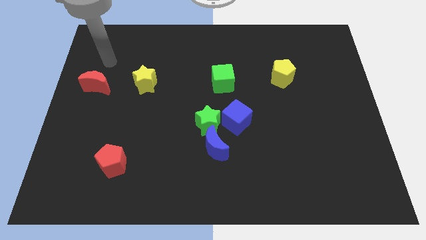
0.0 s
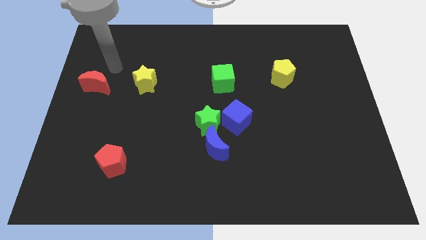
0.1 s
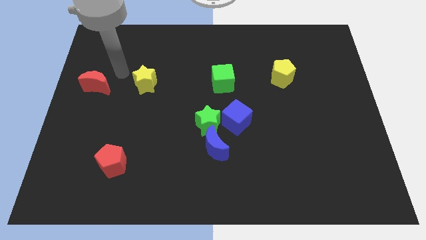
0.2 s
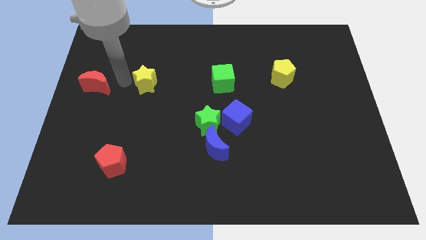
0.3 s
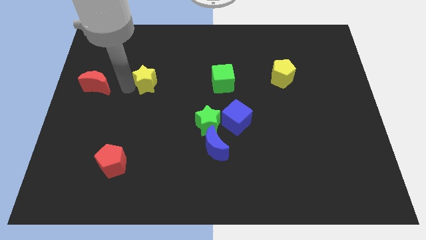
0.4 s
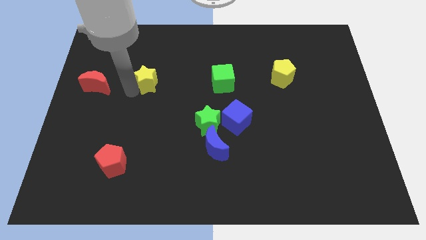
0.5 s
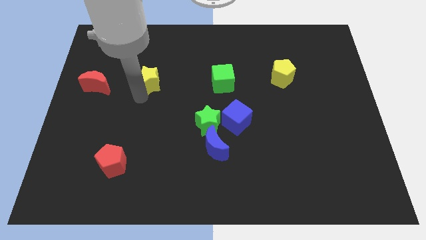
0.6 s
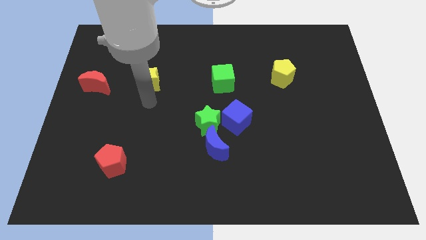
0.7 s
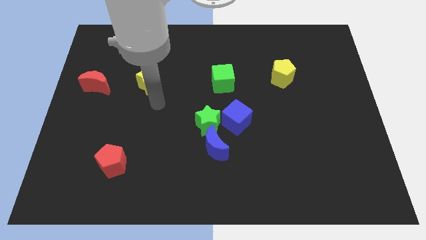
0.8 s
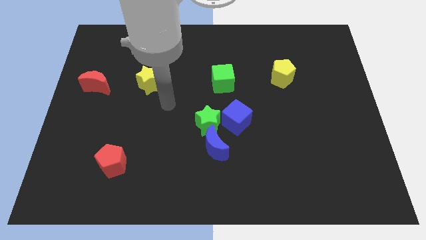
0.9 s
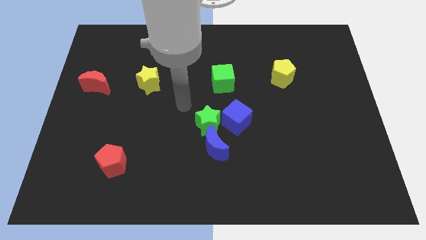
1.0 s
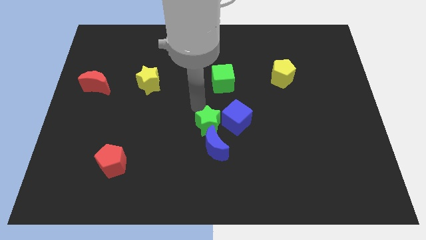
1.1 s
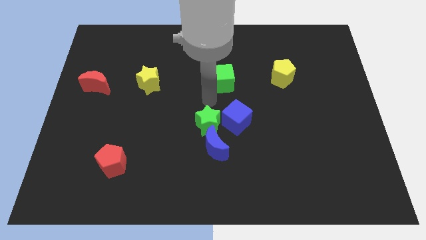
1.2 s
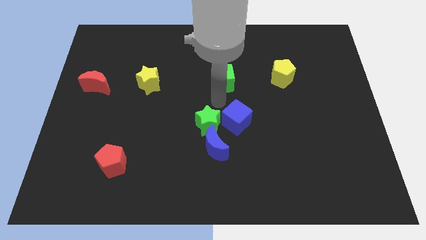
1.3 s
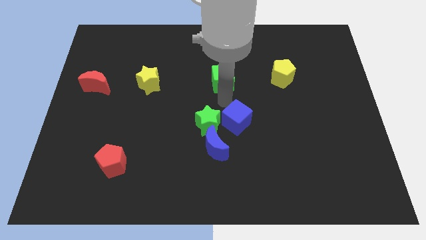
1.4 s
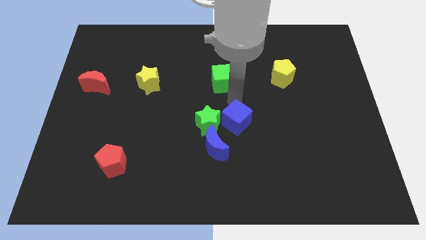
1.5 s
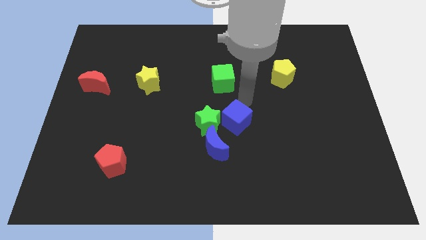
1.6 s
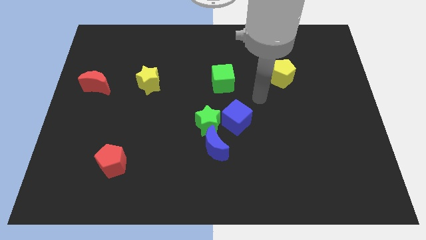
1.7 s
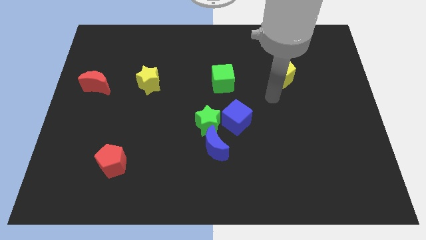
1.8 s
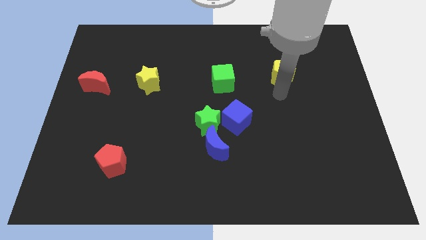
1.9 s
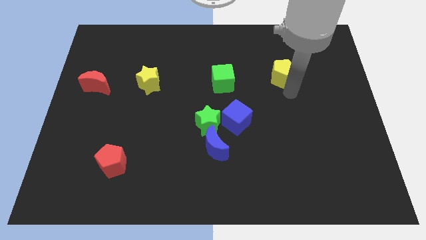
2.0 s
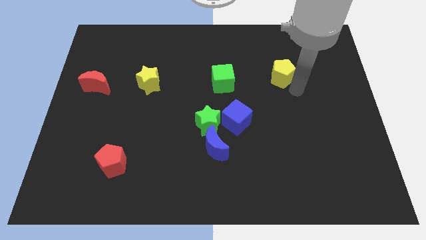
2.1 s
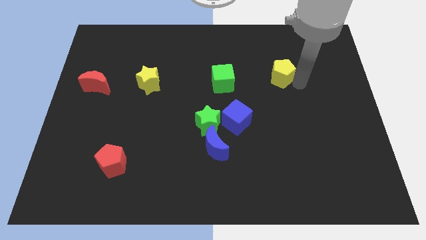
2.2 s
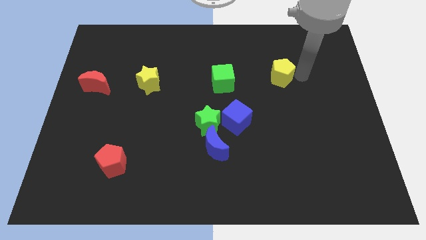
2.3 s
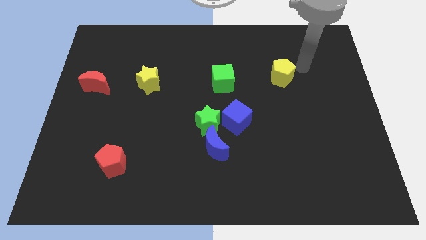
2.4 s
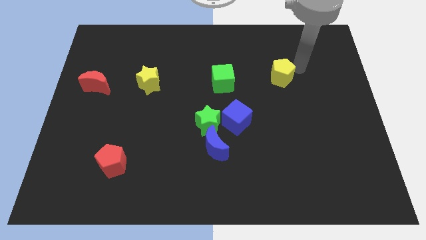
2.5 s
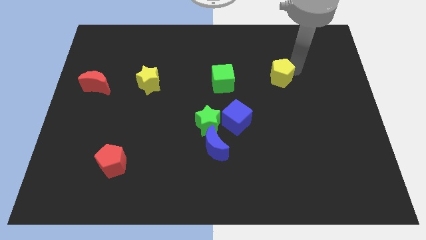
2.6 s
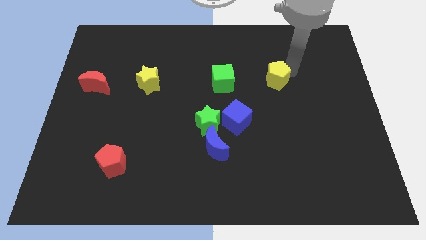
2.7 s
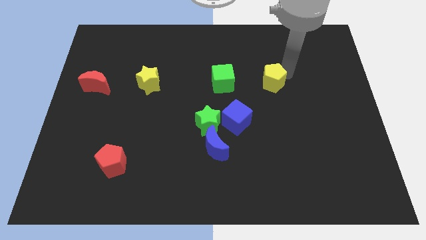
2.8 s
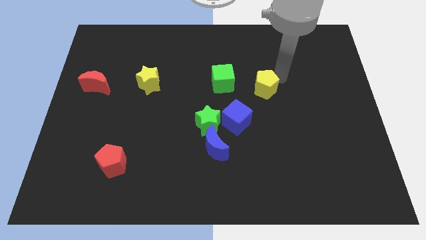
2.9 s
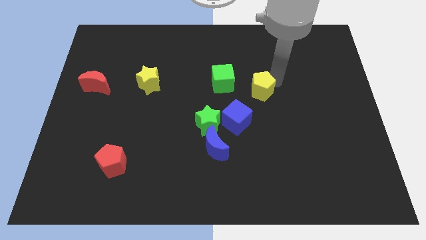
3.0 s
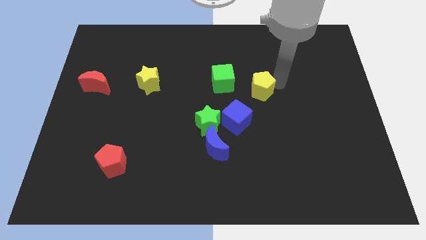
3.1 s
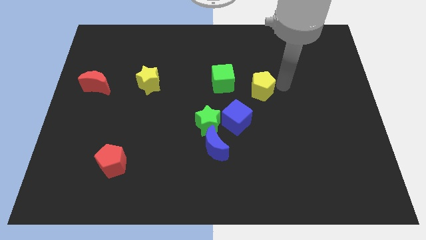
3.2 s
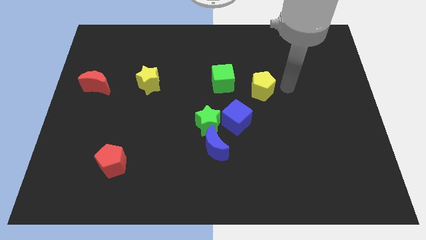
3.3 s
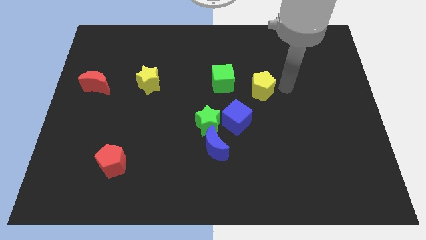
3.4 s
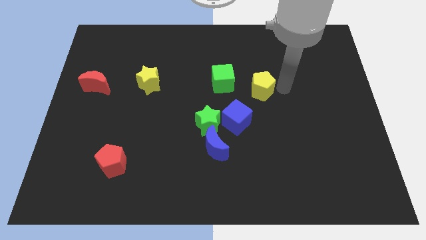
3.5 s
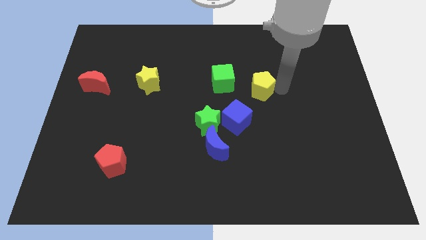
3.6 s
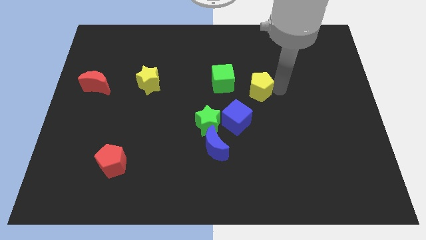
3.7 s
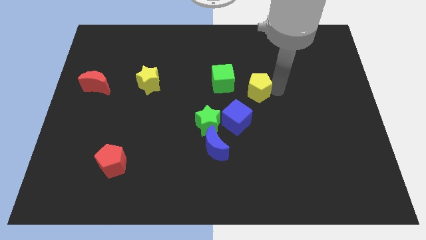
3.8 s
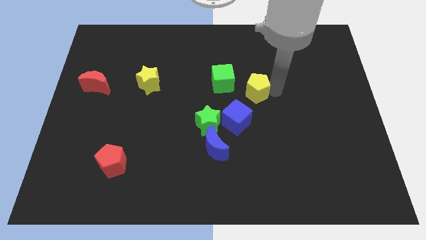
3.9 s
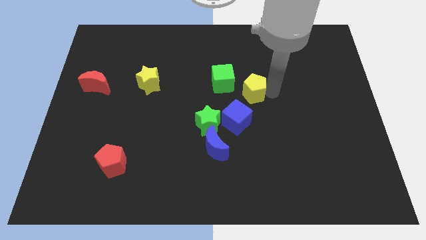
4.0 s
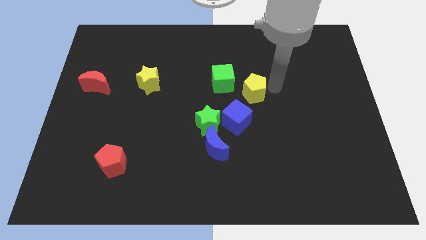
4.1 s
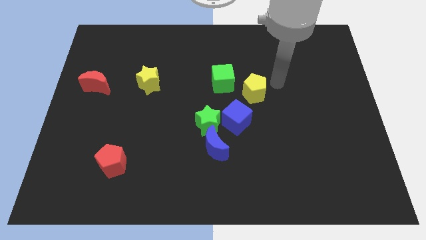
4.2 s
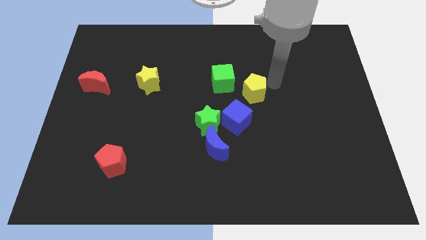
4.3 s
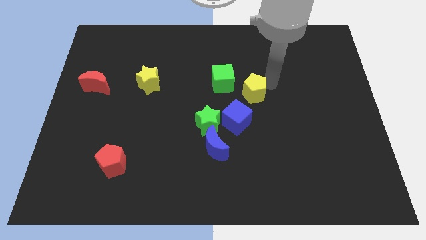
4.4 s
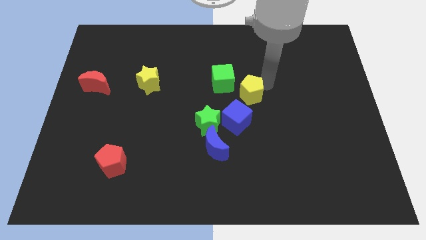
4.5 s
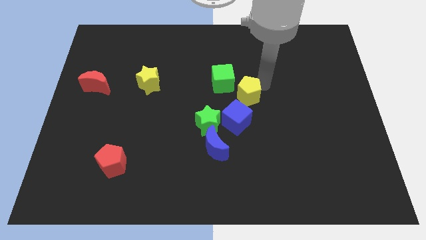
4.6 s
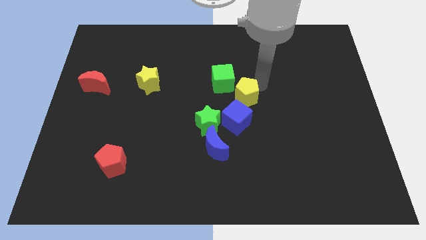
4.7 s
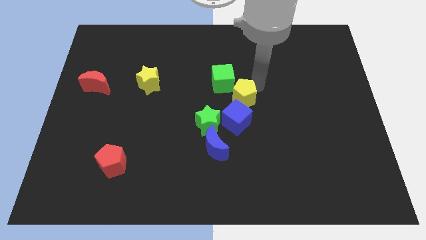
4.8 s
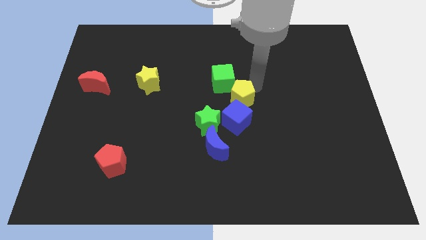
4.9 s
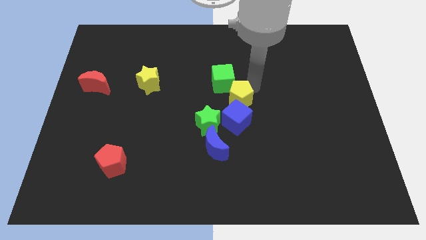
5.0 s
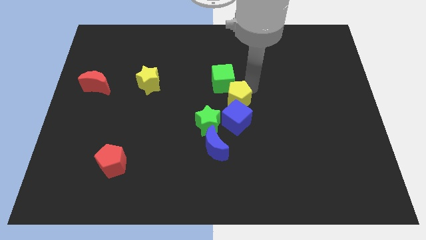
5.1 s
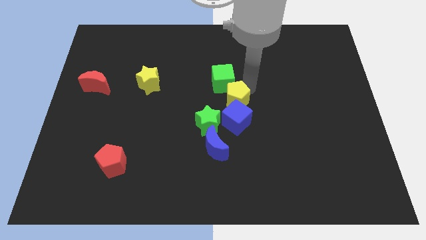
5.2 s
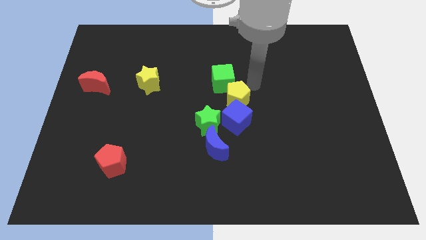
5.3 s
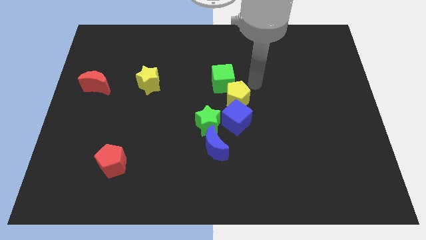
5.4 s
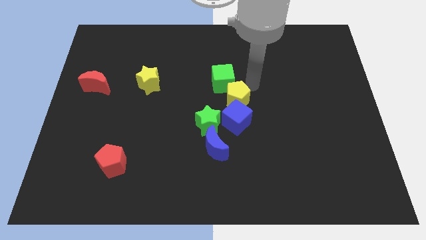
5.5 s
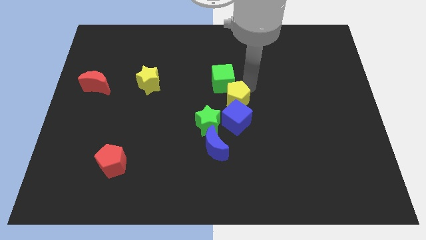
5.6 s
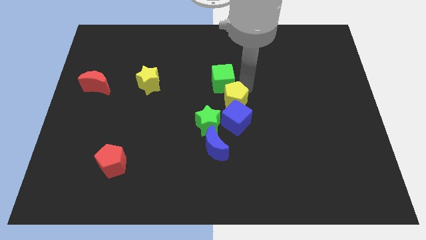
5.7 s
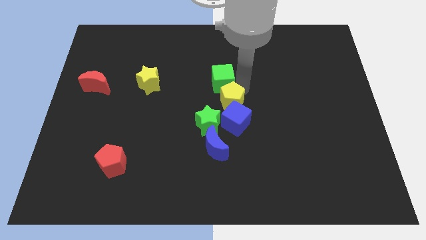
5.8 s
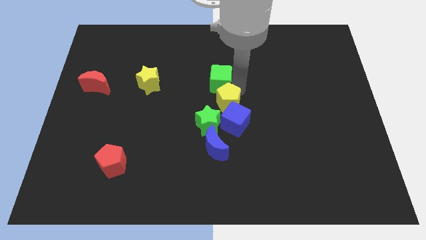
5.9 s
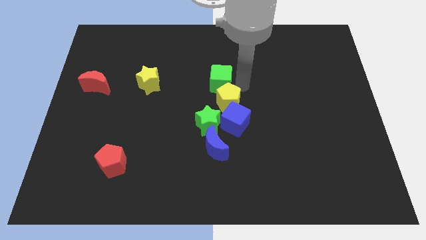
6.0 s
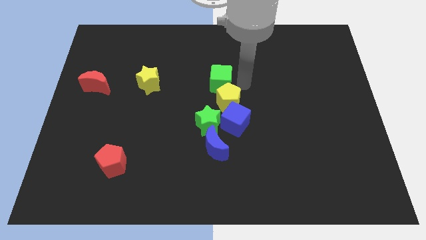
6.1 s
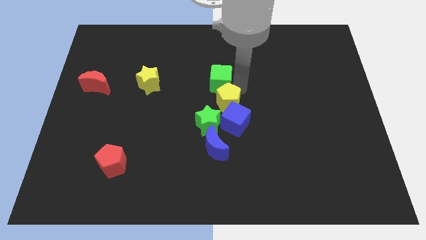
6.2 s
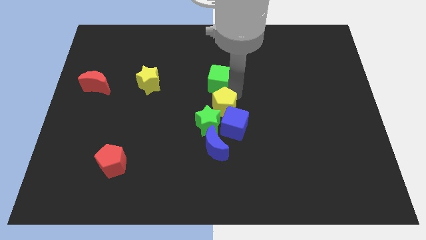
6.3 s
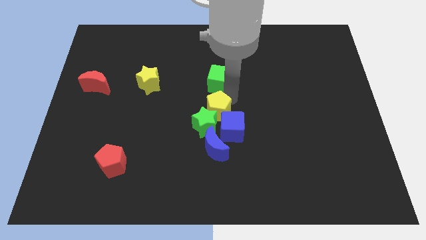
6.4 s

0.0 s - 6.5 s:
slide the yellow pentagon next to the green star

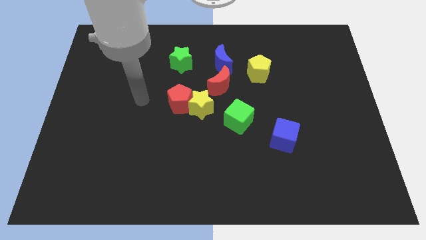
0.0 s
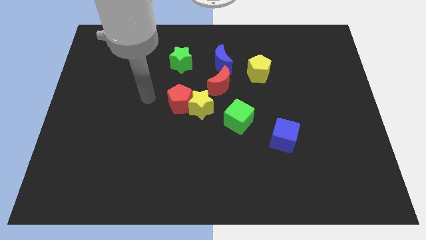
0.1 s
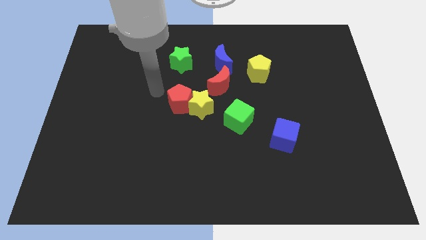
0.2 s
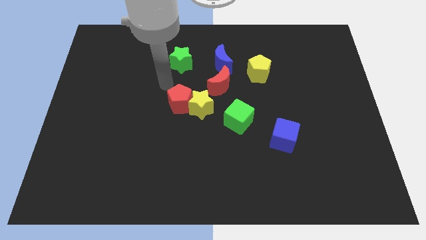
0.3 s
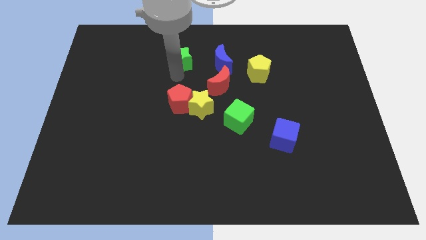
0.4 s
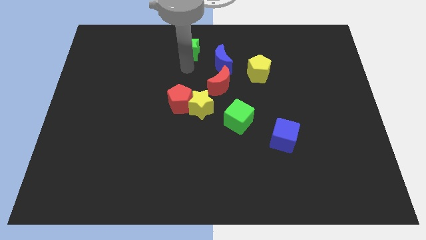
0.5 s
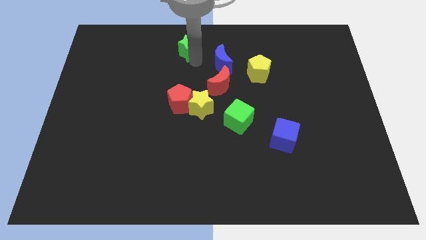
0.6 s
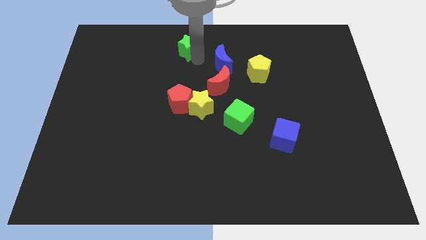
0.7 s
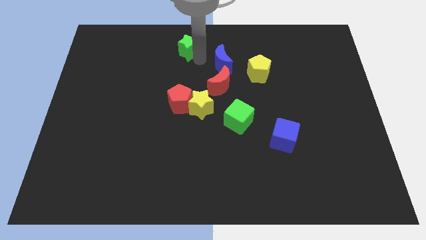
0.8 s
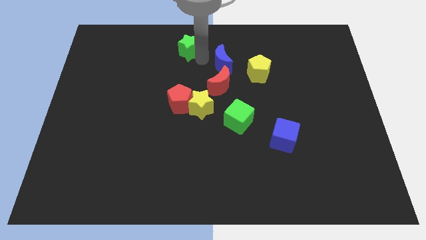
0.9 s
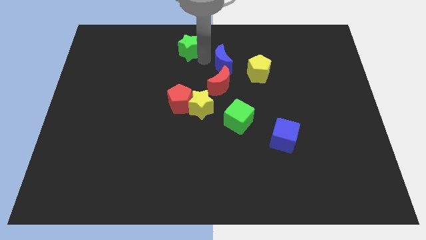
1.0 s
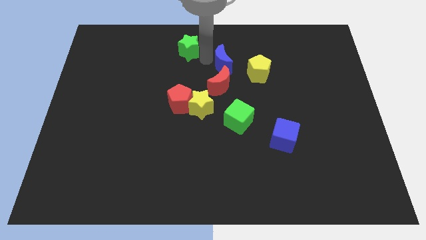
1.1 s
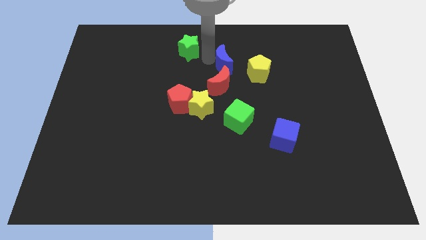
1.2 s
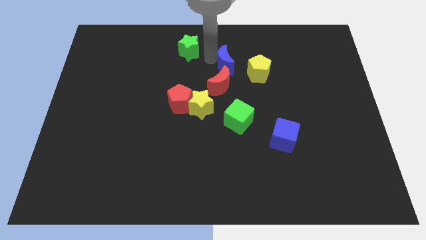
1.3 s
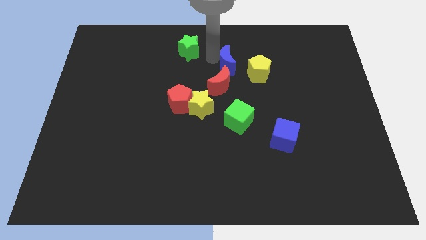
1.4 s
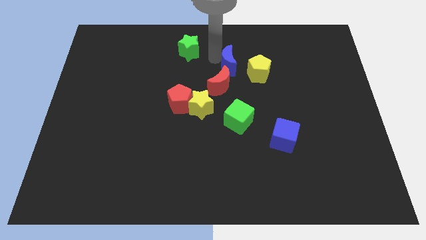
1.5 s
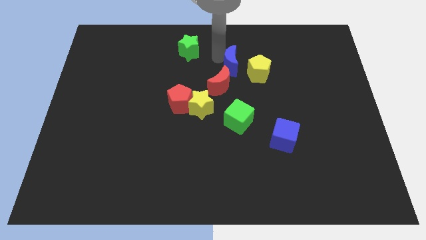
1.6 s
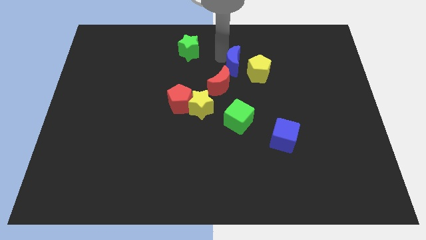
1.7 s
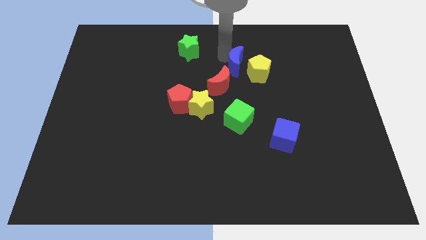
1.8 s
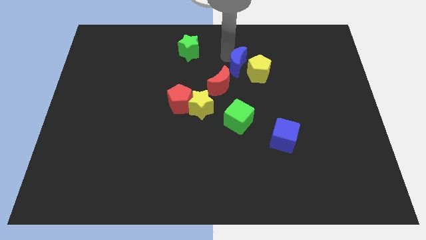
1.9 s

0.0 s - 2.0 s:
slide the blue moon close to the yellow pentagon
